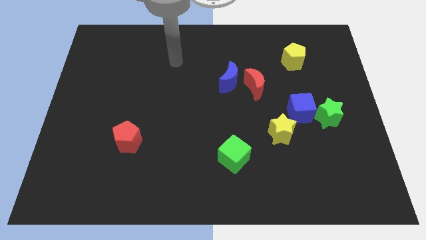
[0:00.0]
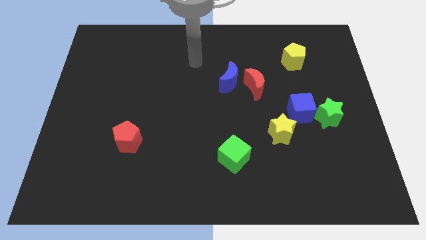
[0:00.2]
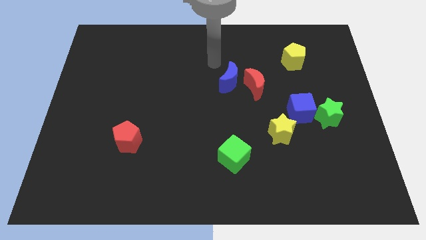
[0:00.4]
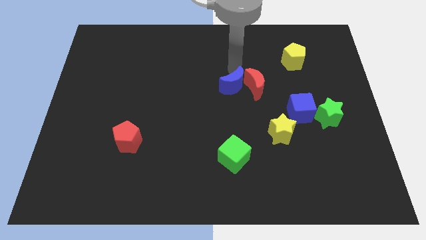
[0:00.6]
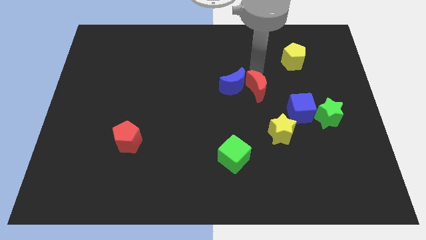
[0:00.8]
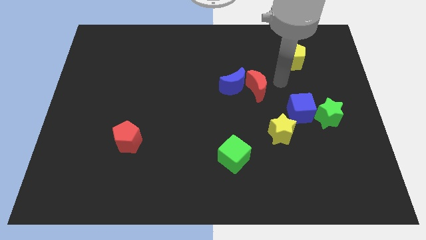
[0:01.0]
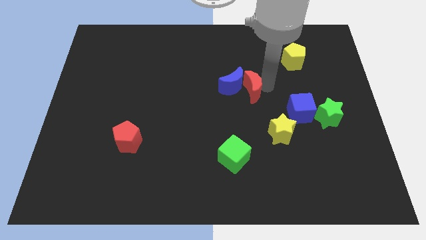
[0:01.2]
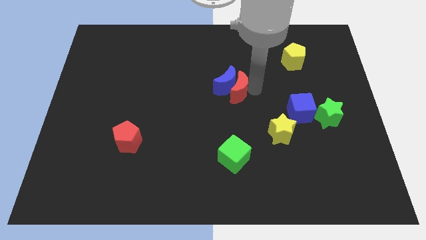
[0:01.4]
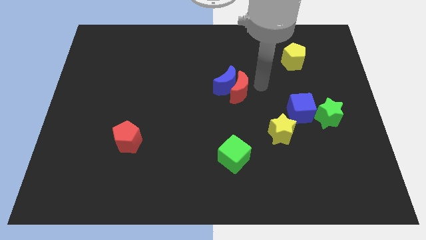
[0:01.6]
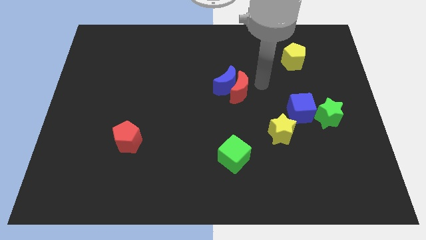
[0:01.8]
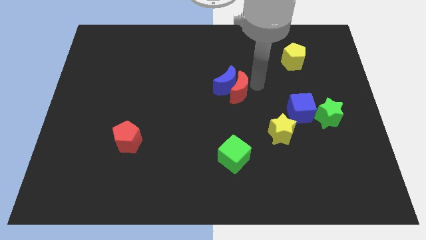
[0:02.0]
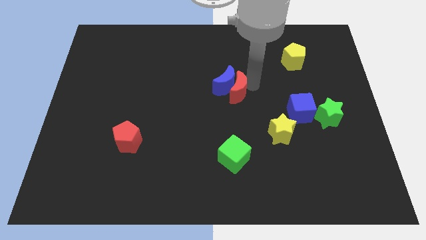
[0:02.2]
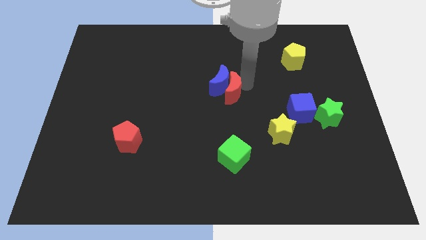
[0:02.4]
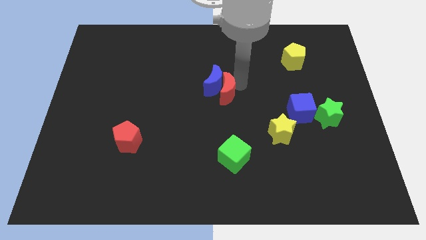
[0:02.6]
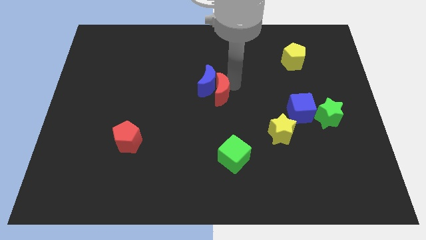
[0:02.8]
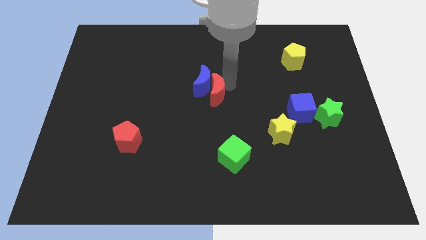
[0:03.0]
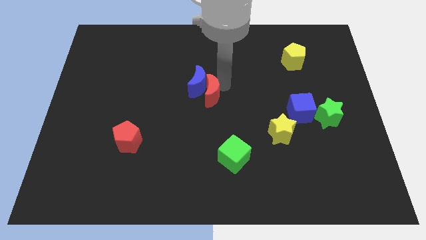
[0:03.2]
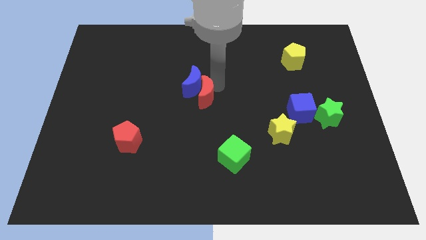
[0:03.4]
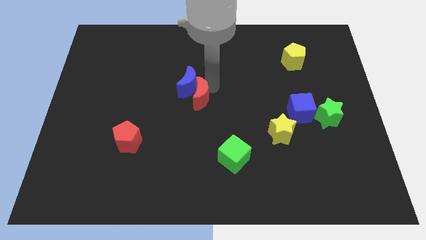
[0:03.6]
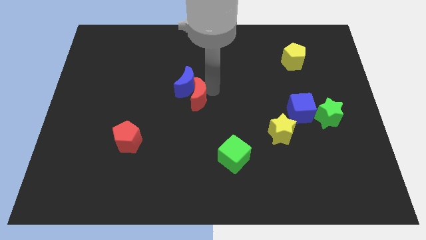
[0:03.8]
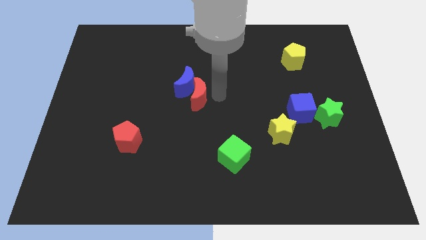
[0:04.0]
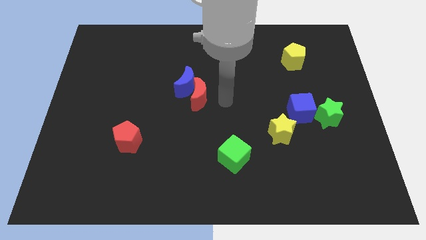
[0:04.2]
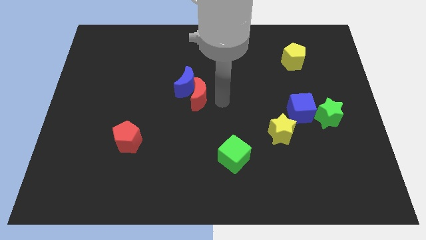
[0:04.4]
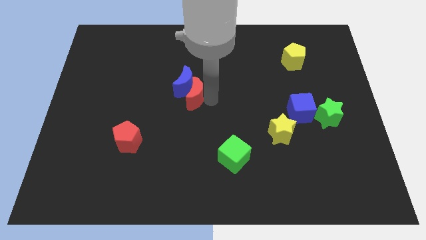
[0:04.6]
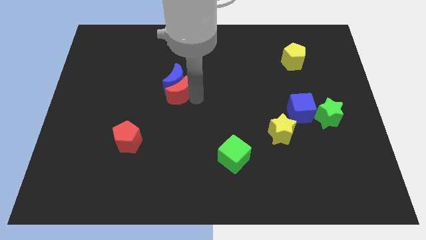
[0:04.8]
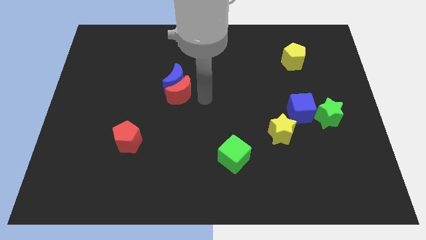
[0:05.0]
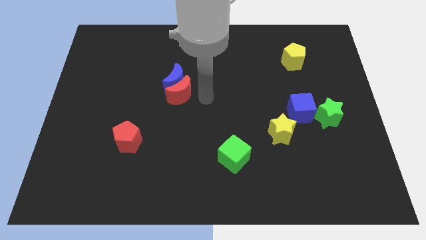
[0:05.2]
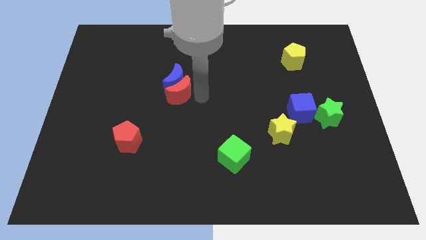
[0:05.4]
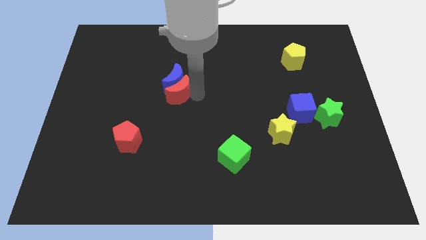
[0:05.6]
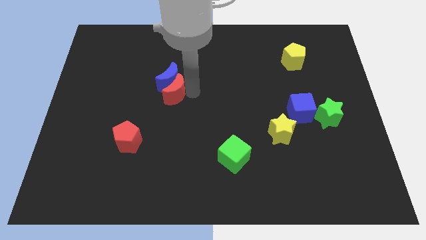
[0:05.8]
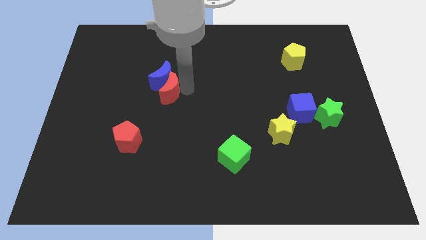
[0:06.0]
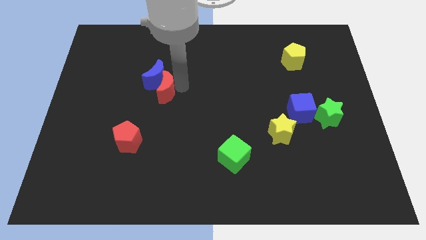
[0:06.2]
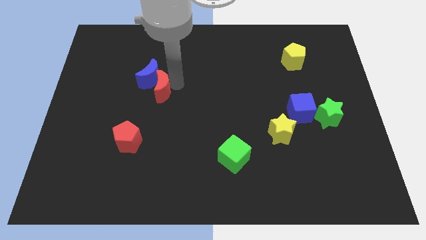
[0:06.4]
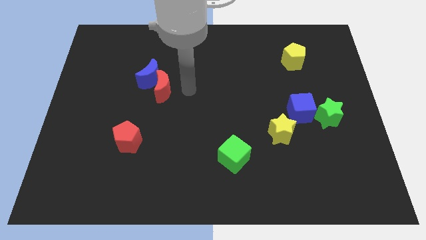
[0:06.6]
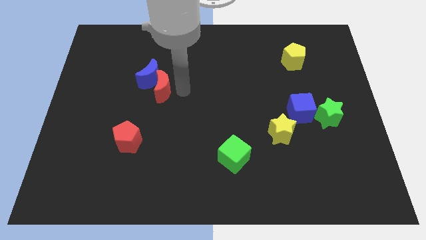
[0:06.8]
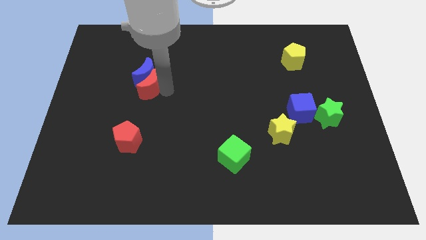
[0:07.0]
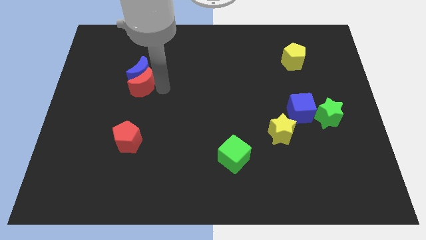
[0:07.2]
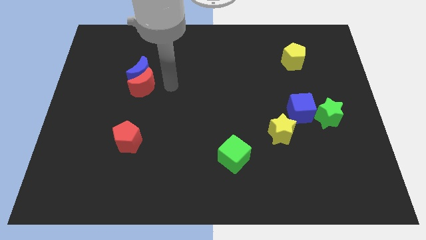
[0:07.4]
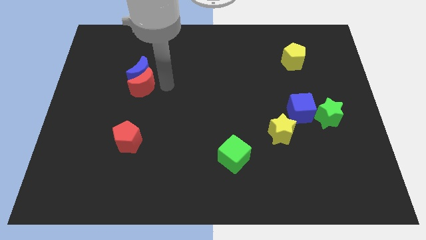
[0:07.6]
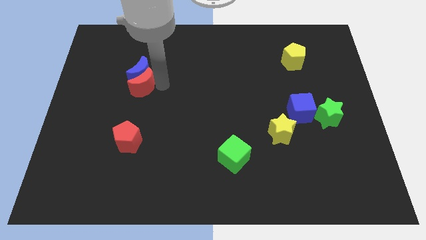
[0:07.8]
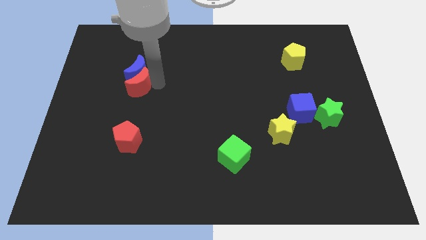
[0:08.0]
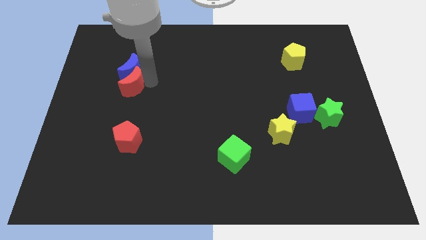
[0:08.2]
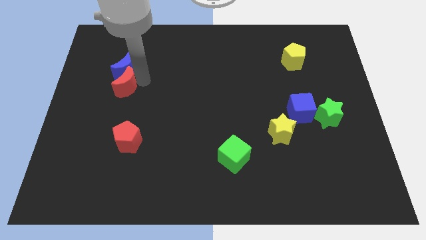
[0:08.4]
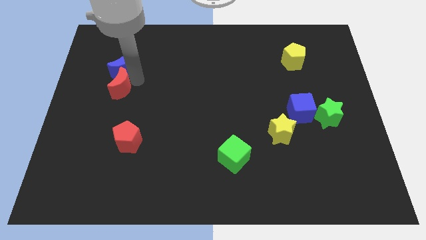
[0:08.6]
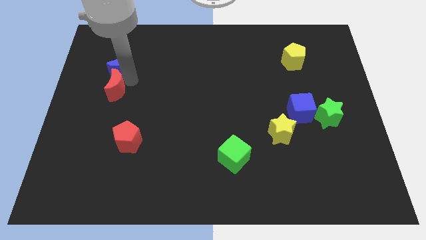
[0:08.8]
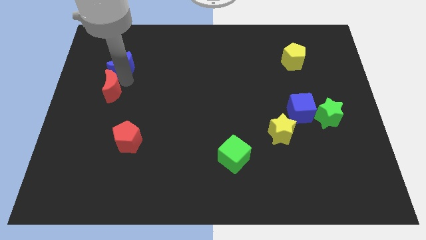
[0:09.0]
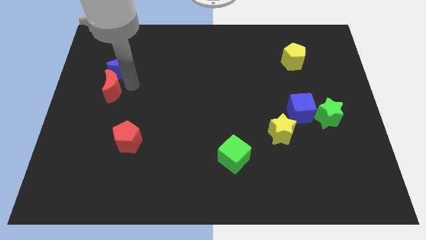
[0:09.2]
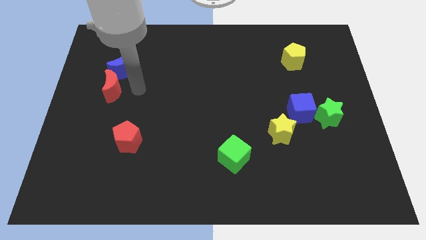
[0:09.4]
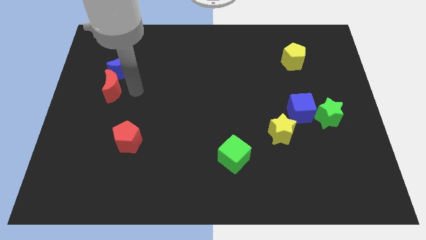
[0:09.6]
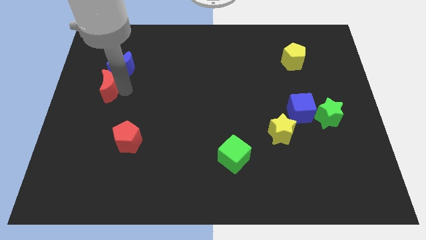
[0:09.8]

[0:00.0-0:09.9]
slide the red moon to the center left
